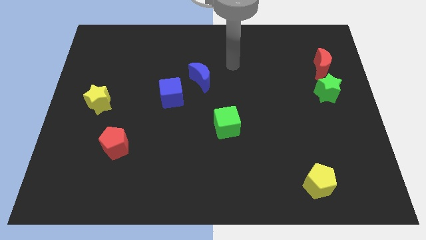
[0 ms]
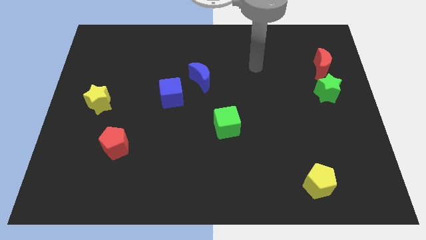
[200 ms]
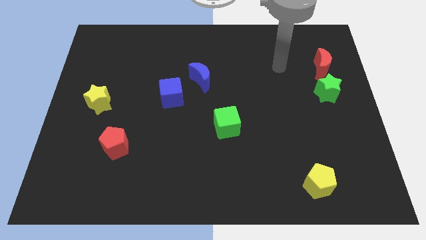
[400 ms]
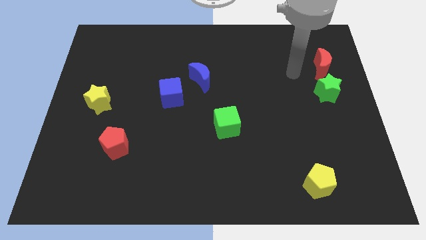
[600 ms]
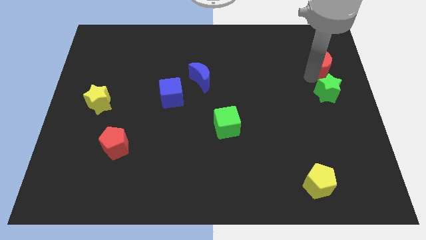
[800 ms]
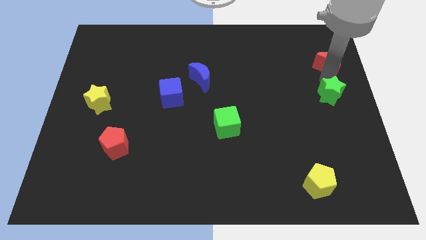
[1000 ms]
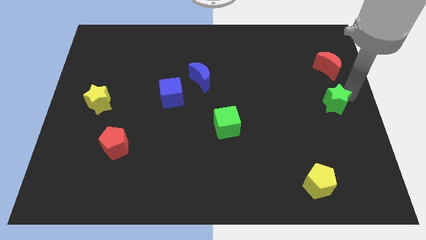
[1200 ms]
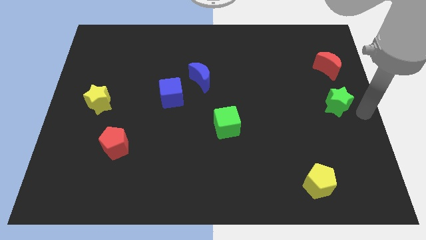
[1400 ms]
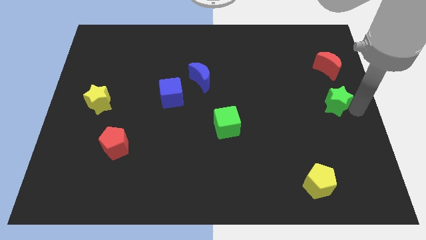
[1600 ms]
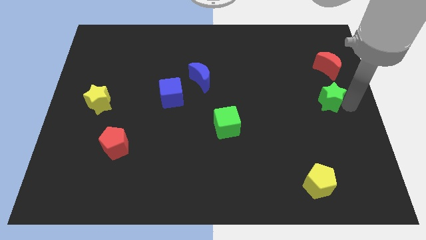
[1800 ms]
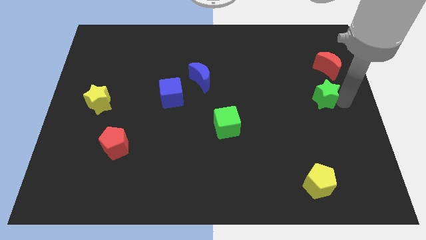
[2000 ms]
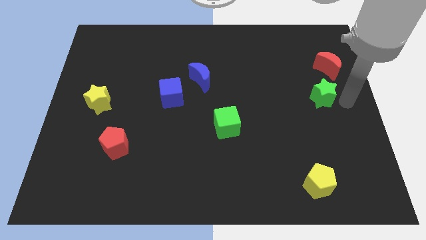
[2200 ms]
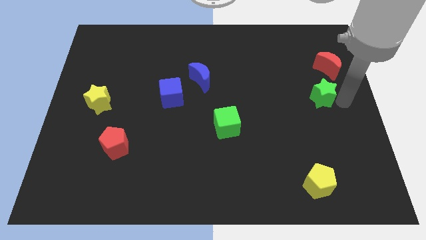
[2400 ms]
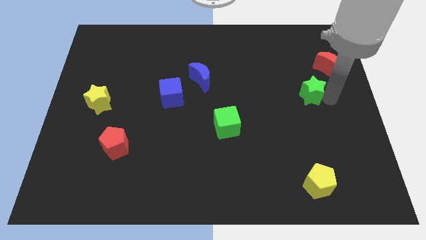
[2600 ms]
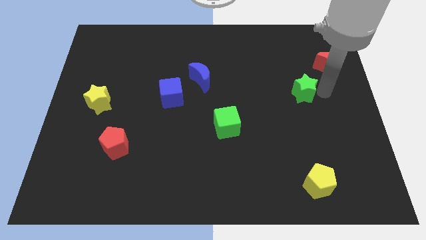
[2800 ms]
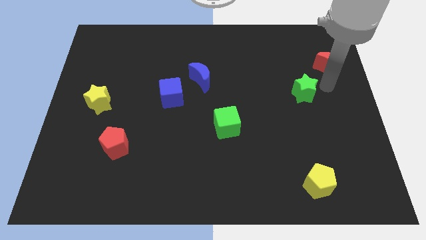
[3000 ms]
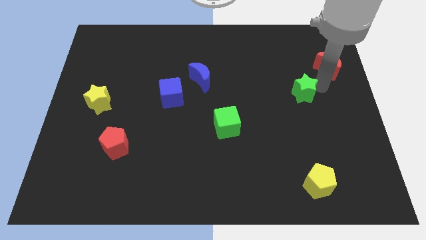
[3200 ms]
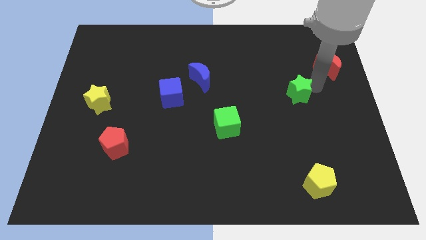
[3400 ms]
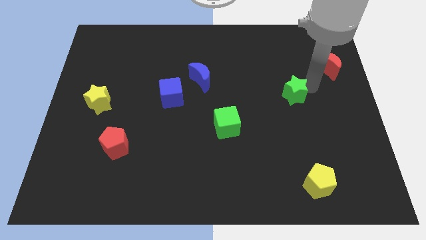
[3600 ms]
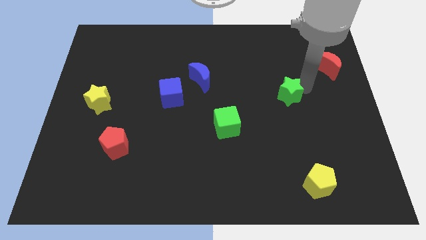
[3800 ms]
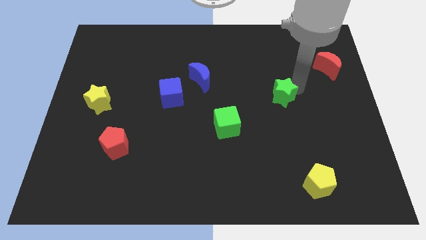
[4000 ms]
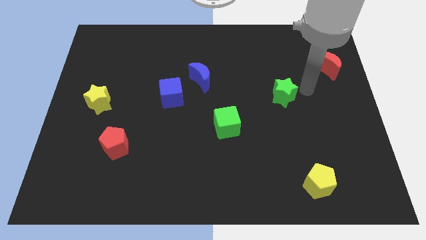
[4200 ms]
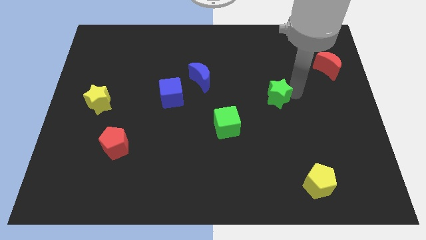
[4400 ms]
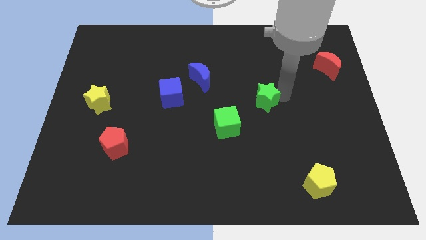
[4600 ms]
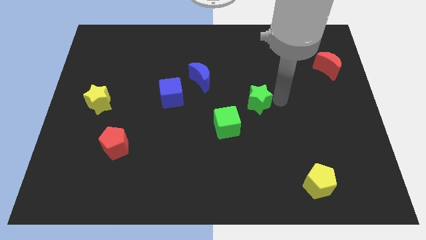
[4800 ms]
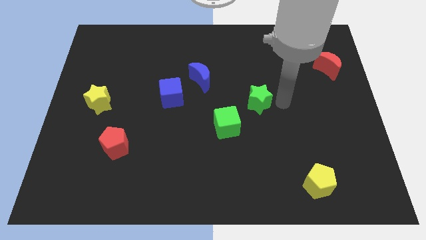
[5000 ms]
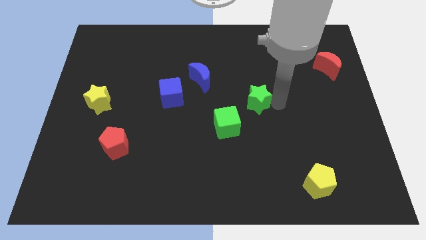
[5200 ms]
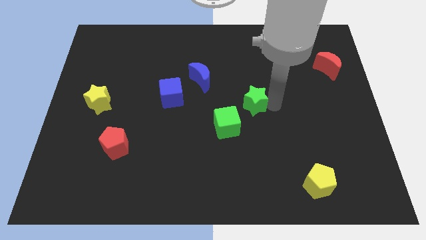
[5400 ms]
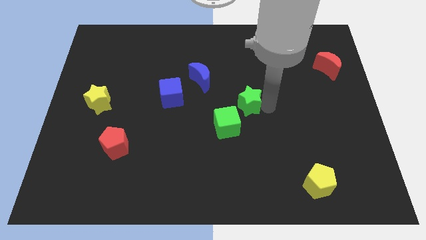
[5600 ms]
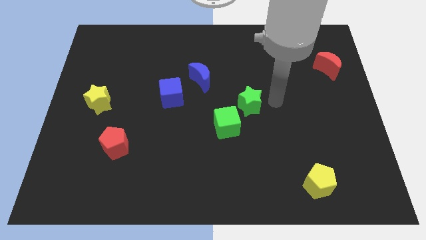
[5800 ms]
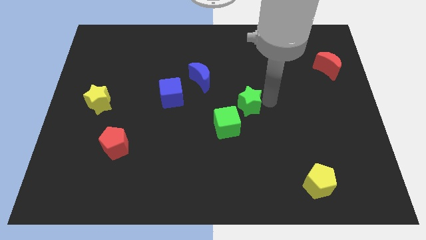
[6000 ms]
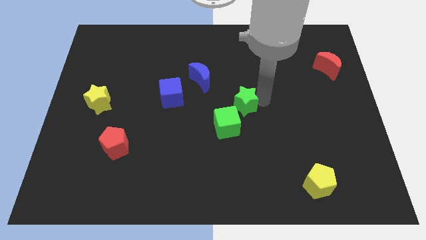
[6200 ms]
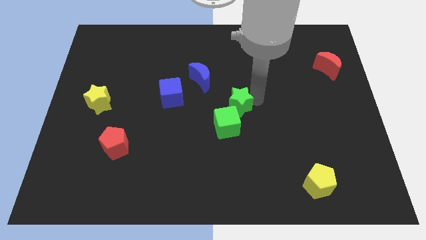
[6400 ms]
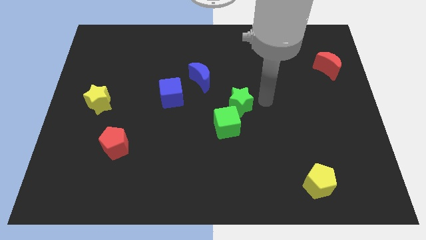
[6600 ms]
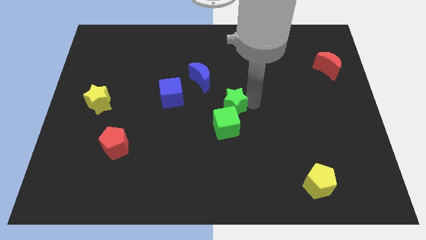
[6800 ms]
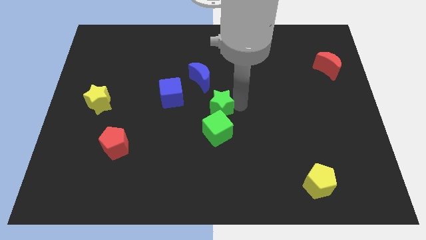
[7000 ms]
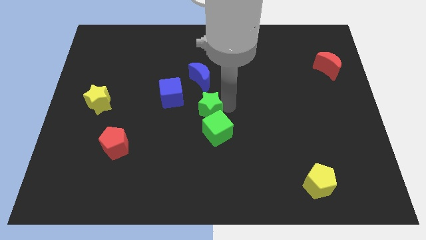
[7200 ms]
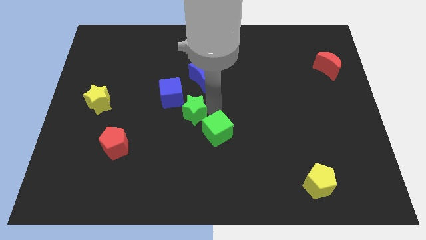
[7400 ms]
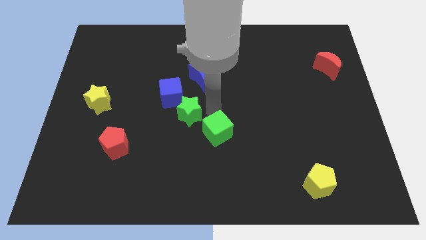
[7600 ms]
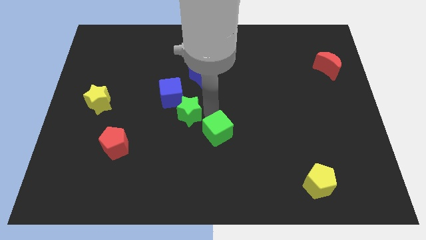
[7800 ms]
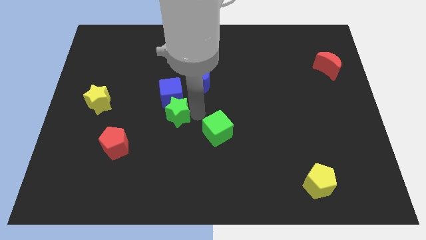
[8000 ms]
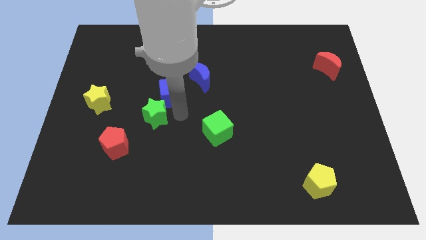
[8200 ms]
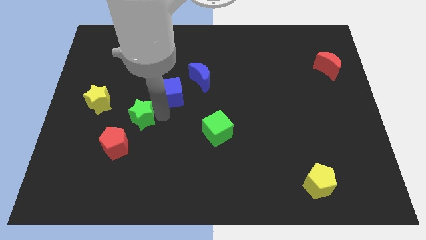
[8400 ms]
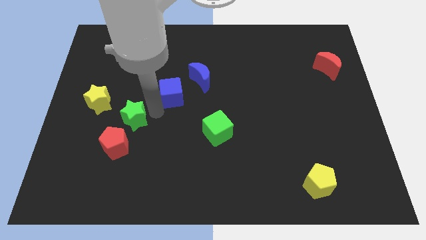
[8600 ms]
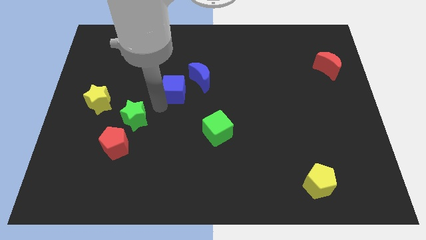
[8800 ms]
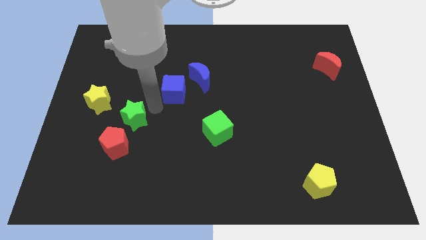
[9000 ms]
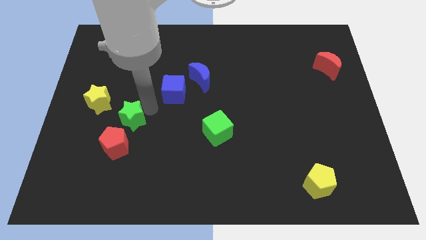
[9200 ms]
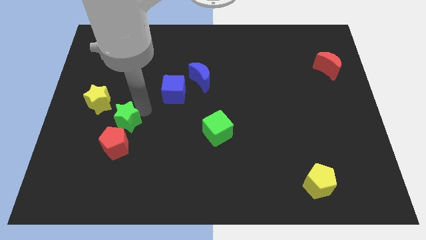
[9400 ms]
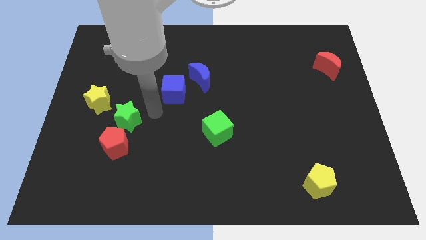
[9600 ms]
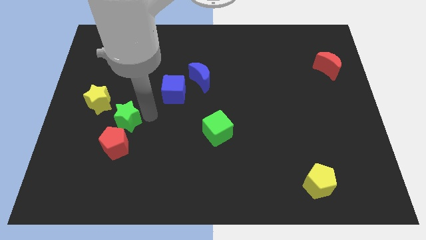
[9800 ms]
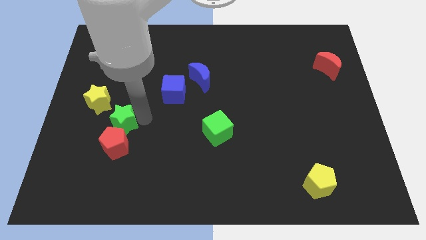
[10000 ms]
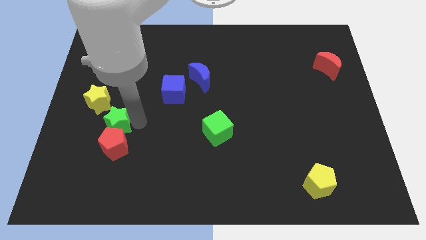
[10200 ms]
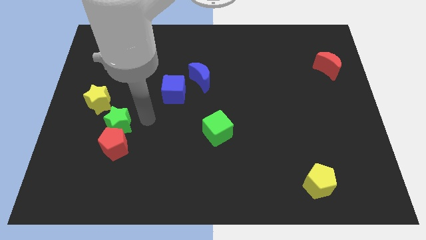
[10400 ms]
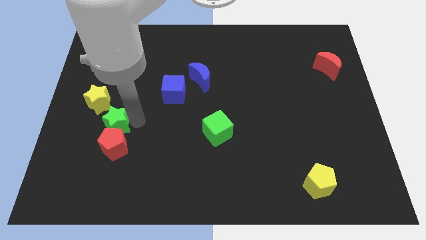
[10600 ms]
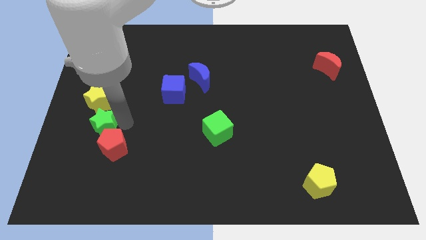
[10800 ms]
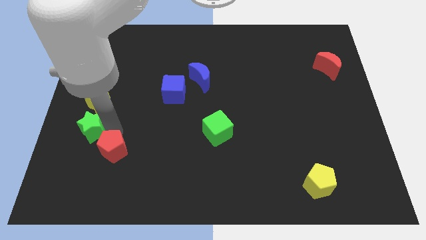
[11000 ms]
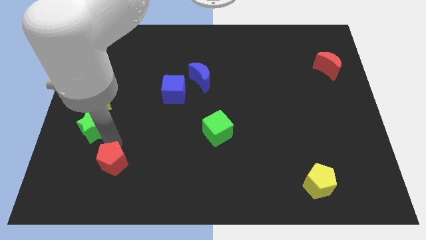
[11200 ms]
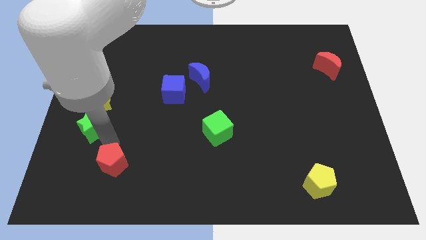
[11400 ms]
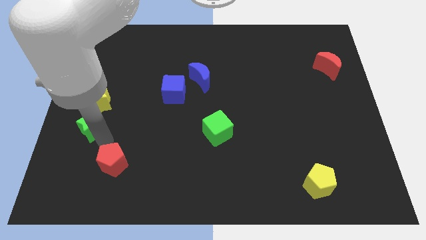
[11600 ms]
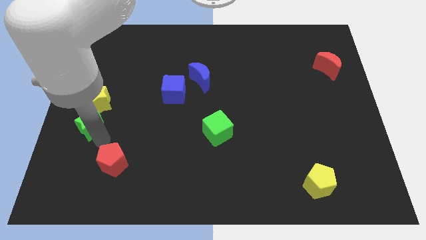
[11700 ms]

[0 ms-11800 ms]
slide the green star to the left side

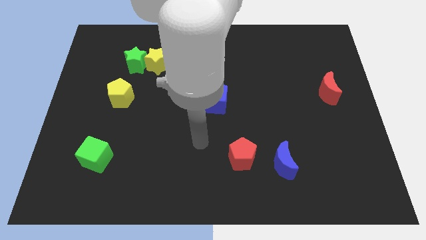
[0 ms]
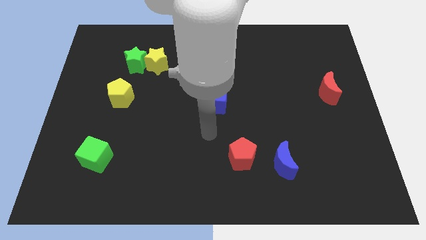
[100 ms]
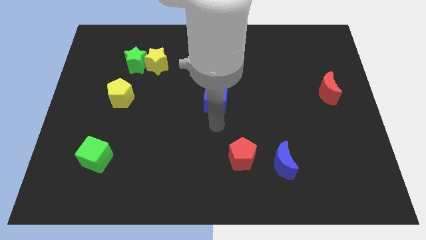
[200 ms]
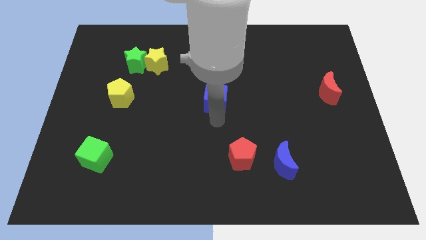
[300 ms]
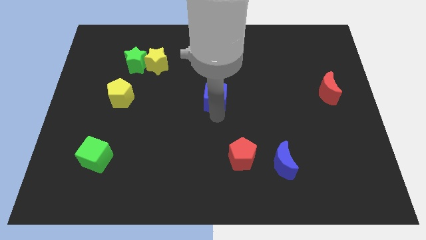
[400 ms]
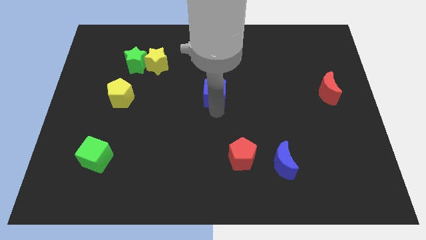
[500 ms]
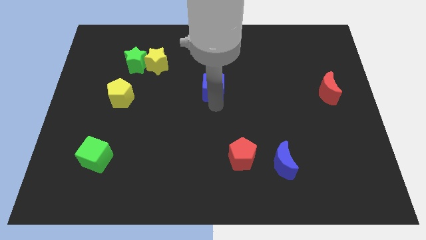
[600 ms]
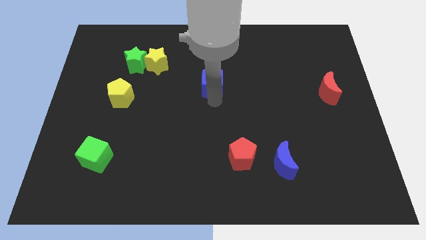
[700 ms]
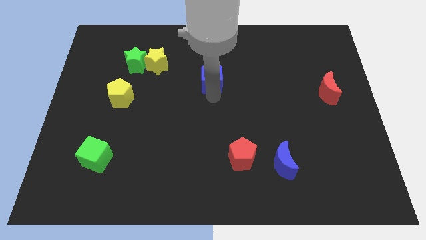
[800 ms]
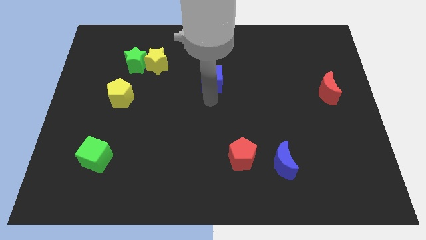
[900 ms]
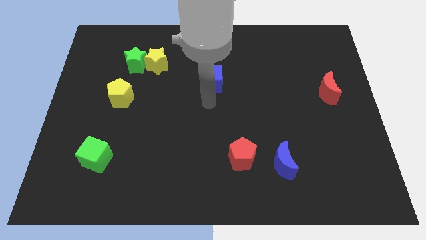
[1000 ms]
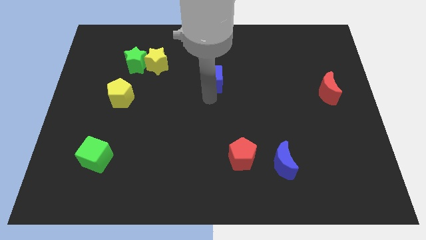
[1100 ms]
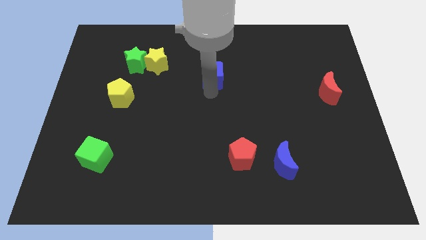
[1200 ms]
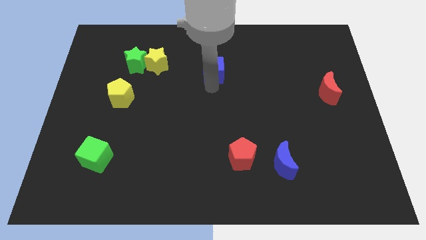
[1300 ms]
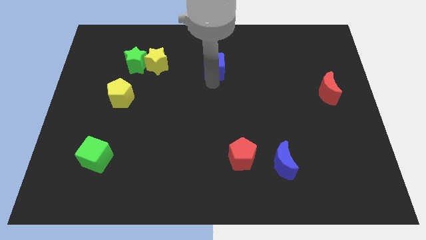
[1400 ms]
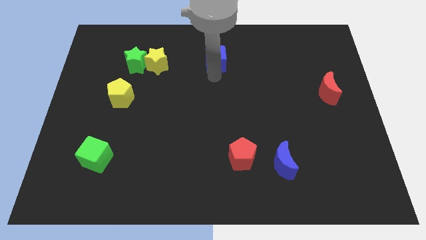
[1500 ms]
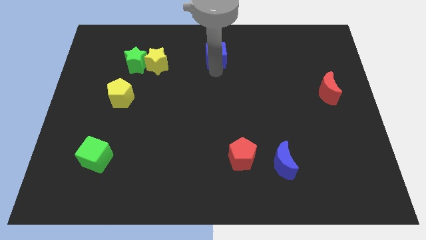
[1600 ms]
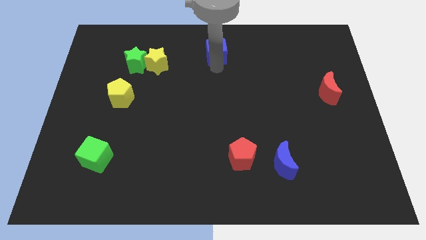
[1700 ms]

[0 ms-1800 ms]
move the blue cube to the top
